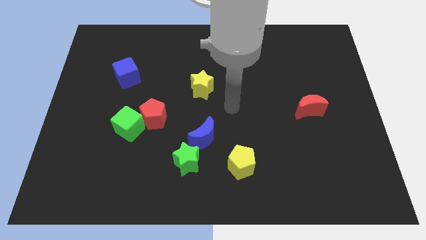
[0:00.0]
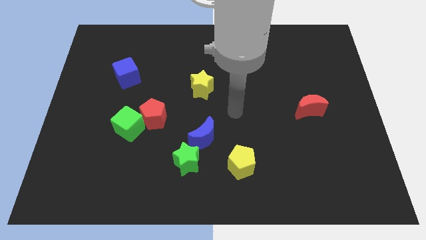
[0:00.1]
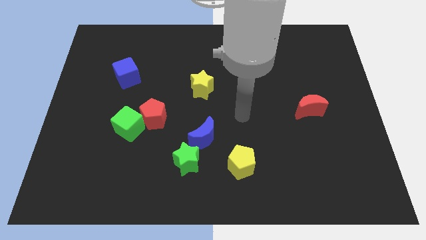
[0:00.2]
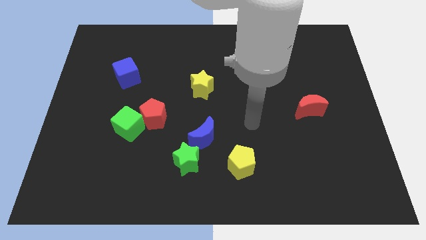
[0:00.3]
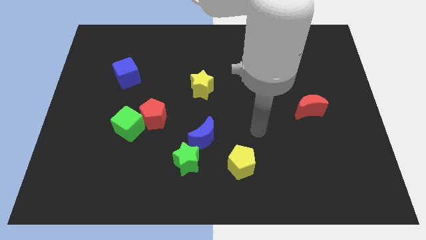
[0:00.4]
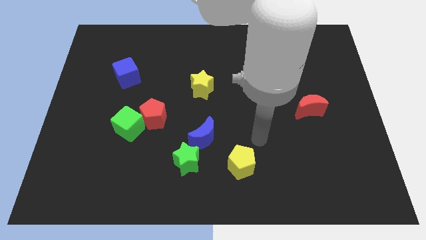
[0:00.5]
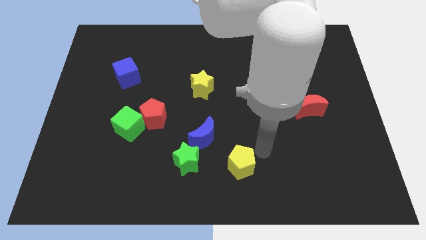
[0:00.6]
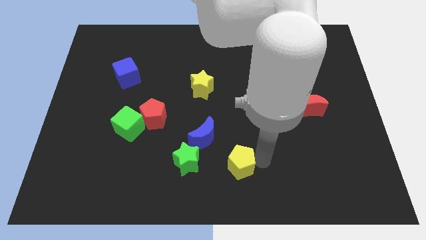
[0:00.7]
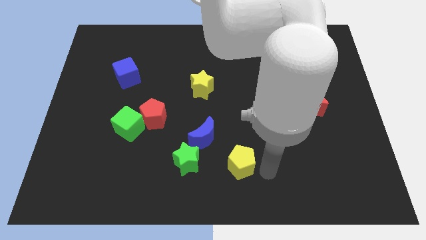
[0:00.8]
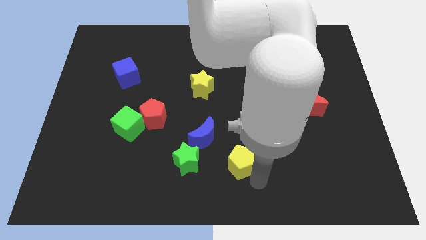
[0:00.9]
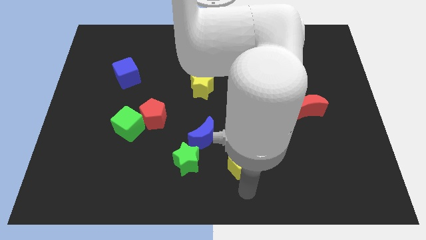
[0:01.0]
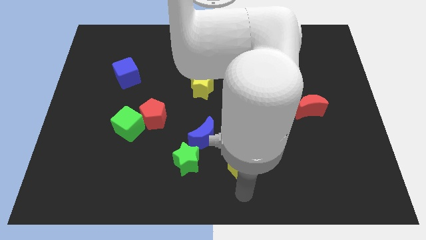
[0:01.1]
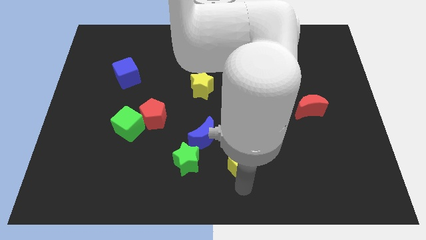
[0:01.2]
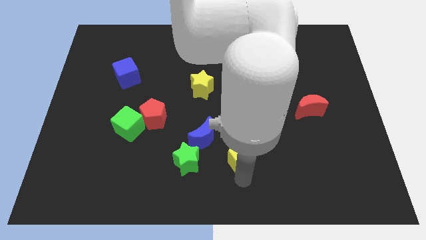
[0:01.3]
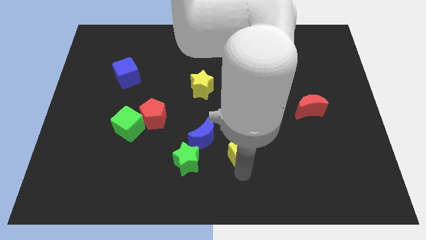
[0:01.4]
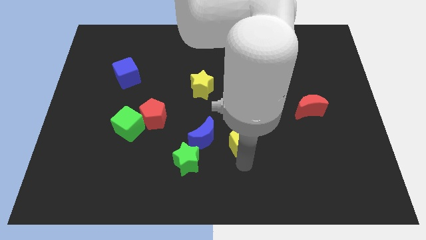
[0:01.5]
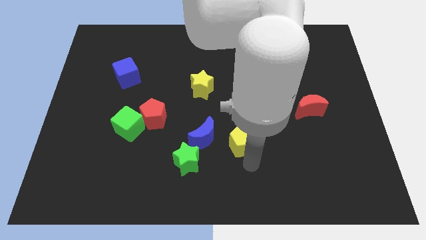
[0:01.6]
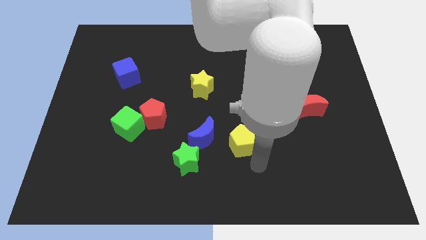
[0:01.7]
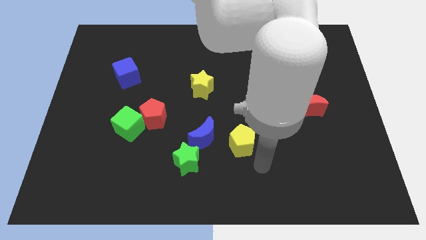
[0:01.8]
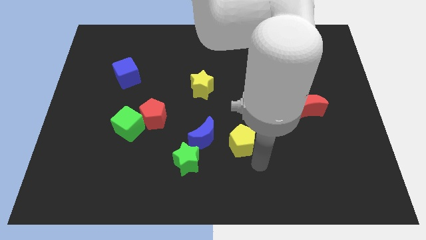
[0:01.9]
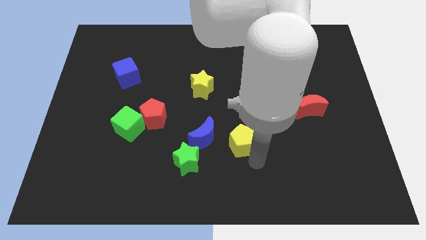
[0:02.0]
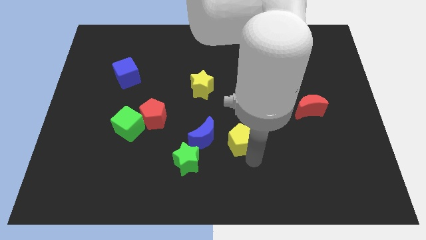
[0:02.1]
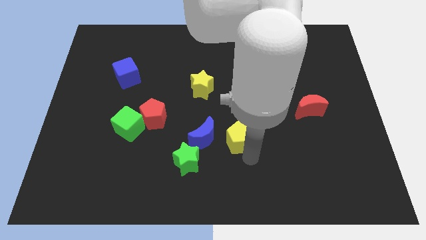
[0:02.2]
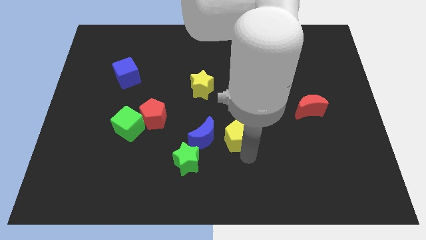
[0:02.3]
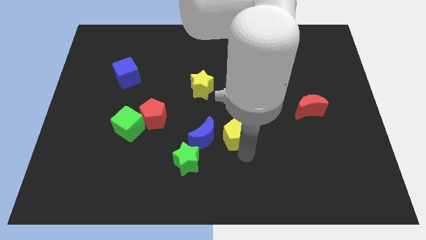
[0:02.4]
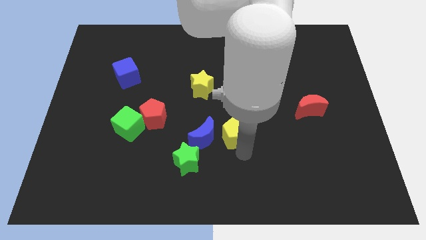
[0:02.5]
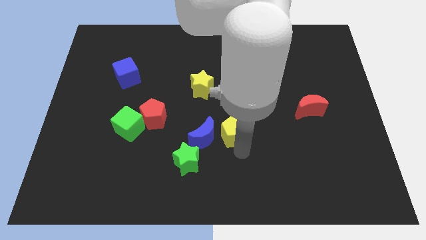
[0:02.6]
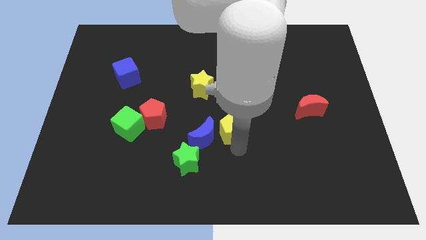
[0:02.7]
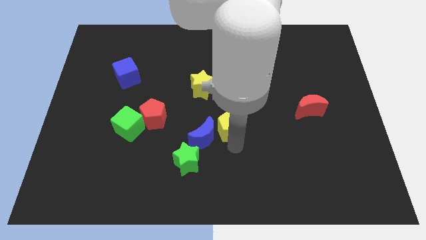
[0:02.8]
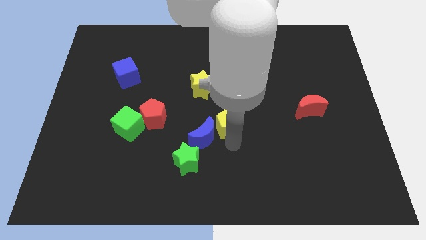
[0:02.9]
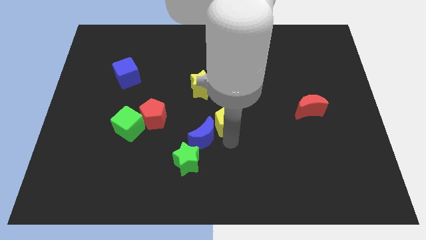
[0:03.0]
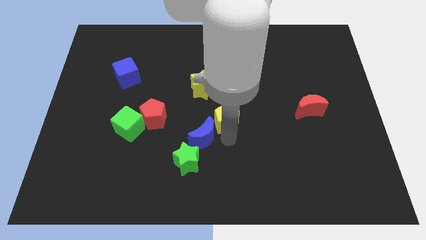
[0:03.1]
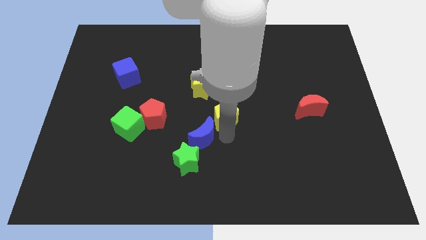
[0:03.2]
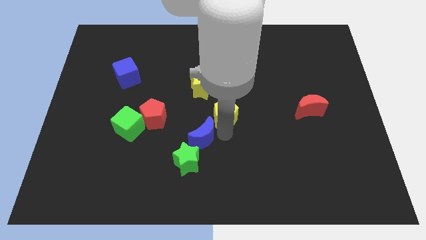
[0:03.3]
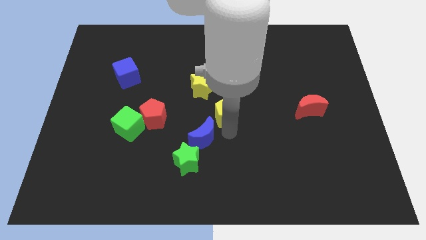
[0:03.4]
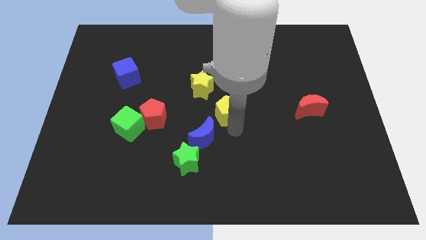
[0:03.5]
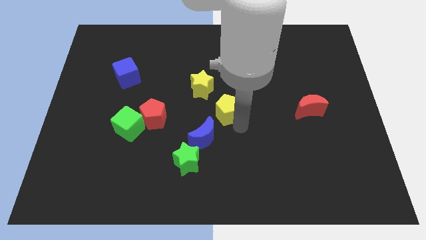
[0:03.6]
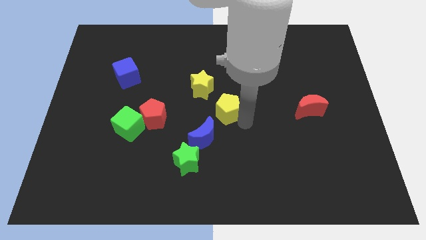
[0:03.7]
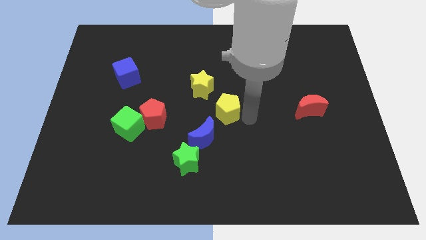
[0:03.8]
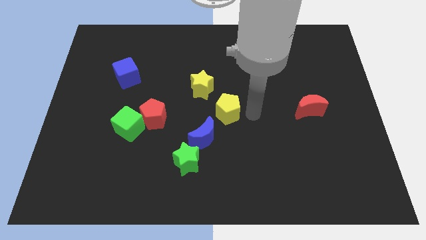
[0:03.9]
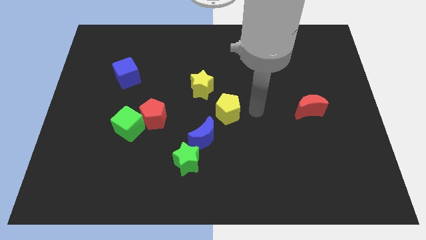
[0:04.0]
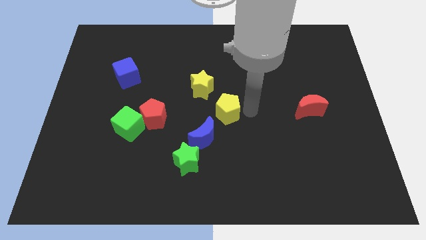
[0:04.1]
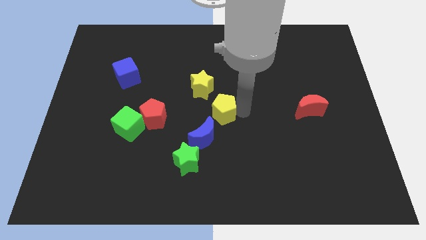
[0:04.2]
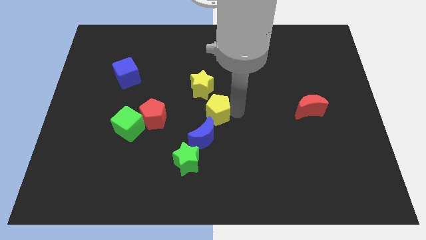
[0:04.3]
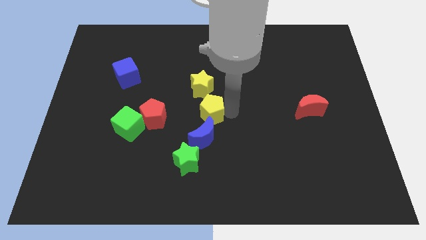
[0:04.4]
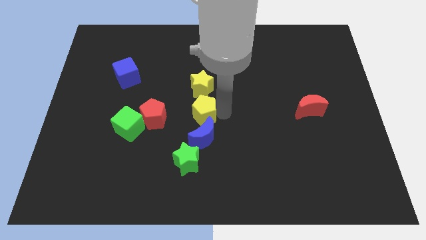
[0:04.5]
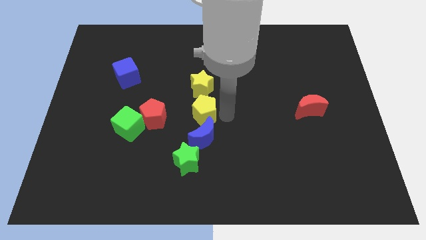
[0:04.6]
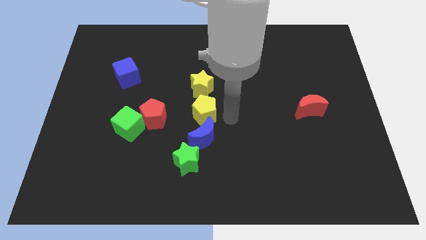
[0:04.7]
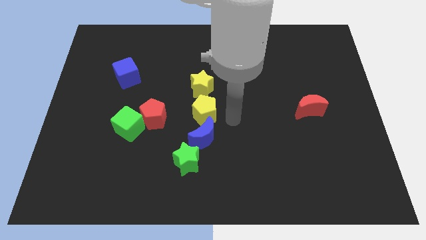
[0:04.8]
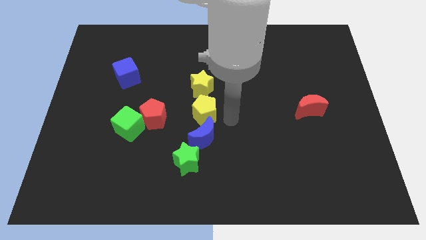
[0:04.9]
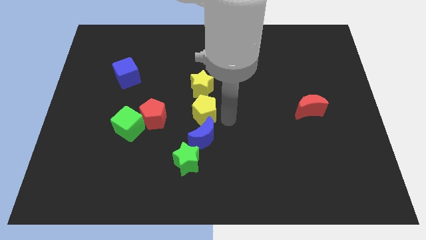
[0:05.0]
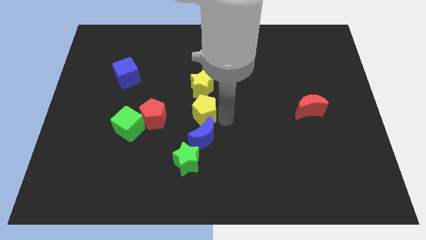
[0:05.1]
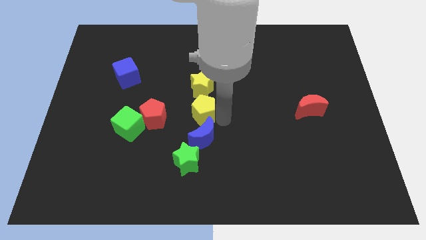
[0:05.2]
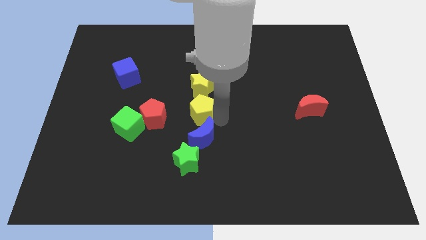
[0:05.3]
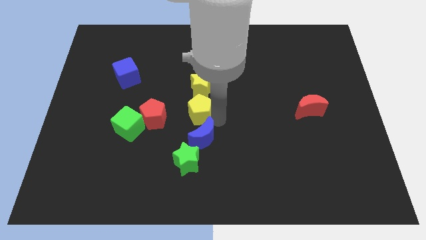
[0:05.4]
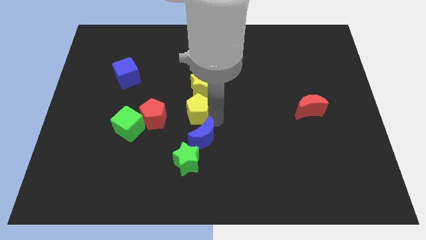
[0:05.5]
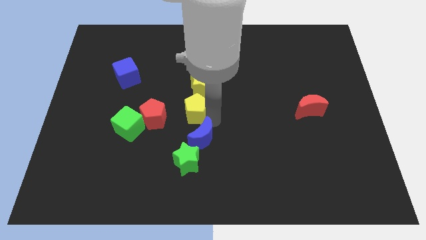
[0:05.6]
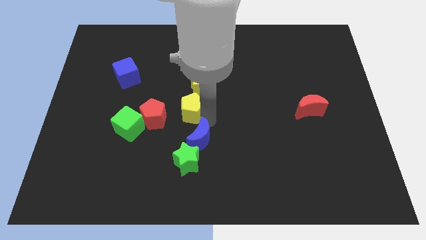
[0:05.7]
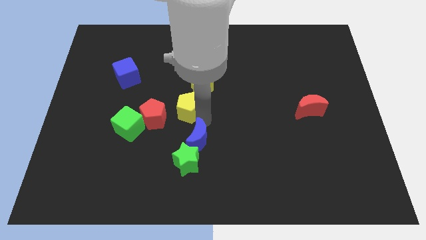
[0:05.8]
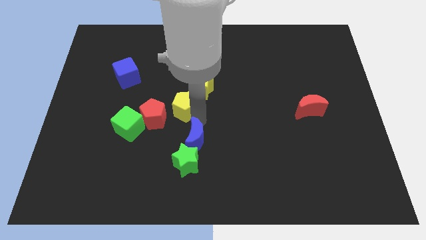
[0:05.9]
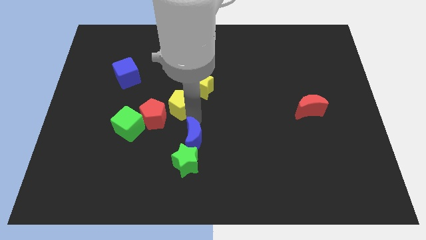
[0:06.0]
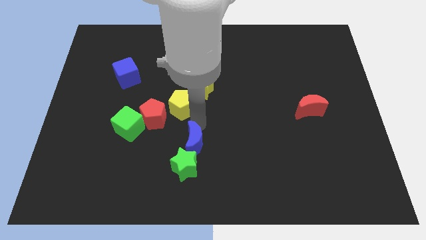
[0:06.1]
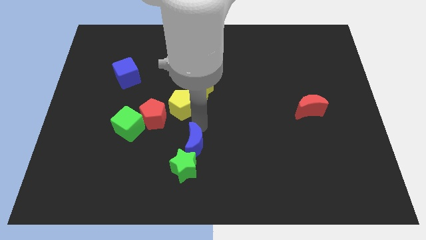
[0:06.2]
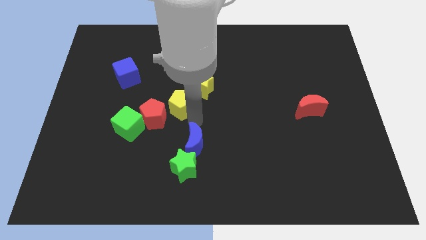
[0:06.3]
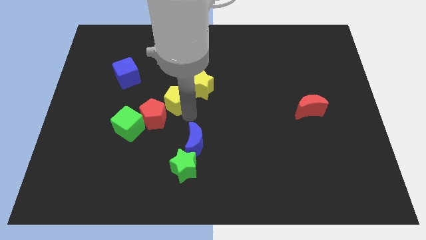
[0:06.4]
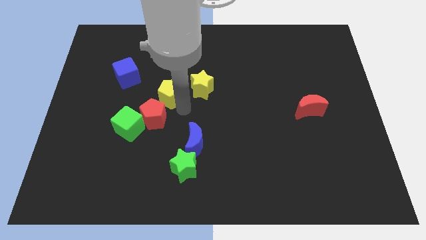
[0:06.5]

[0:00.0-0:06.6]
slide the yellow pentagon to the top side of the red pentagon
